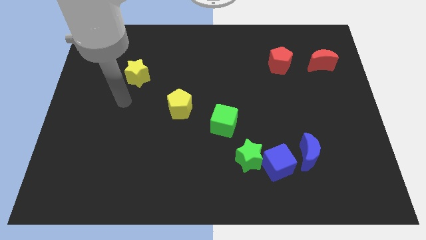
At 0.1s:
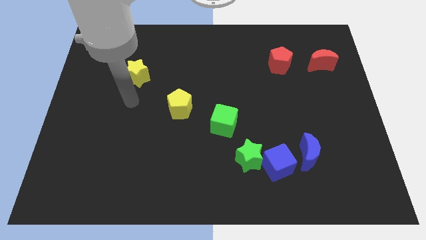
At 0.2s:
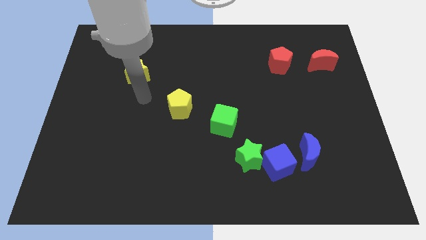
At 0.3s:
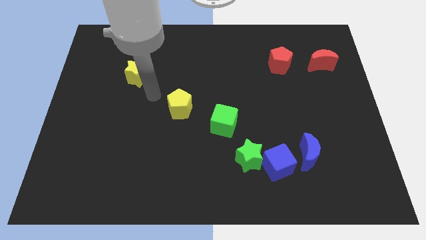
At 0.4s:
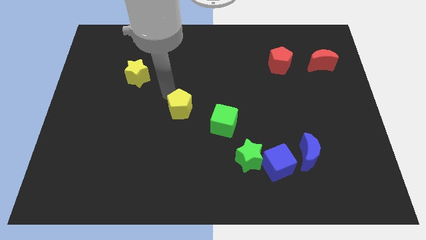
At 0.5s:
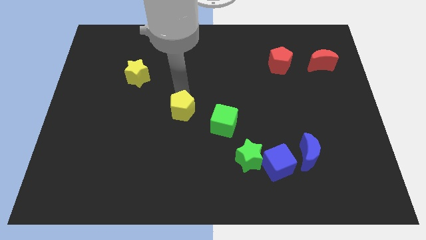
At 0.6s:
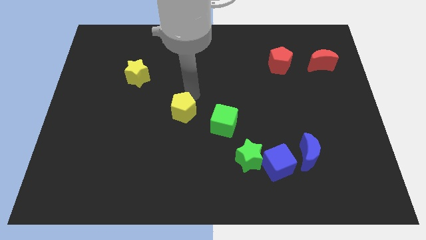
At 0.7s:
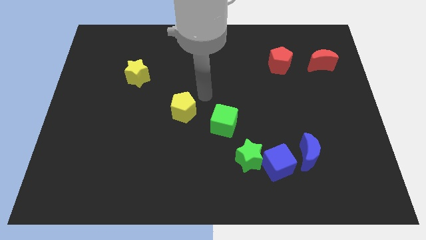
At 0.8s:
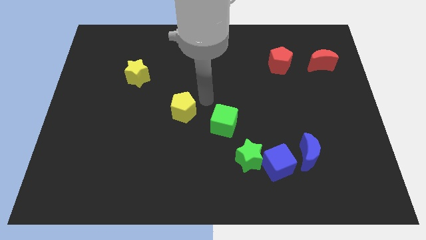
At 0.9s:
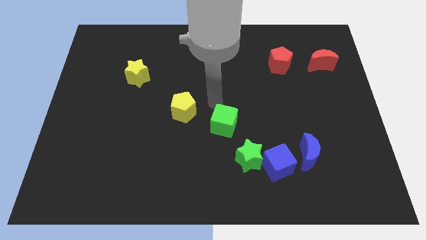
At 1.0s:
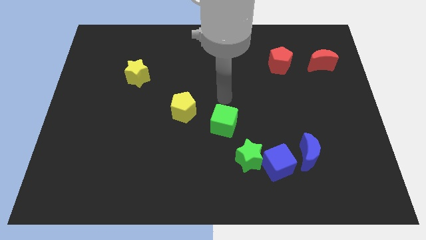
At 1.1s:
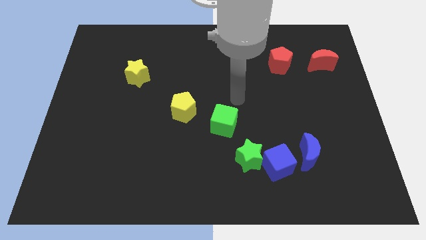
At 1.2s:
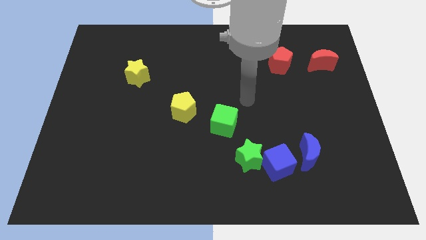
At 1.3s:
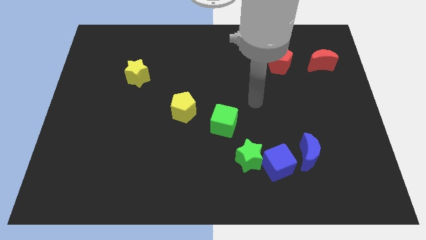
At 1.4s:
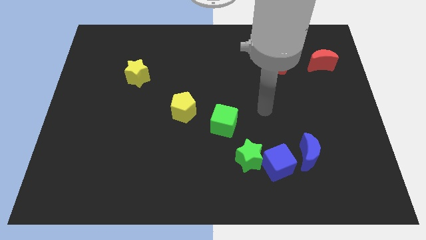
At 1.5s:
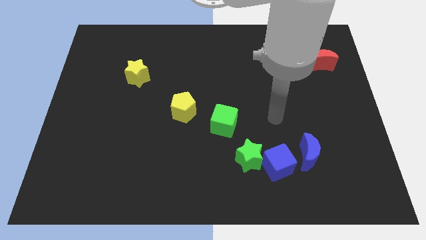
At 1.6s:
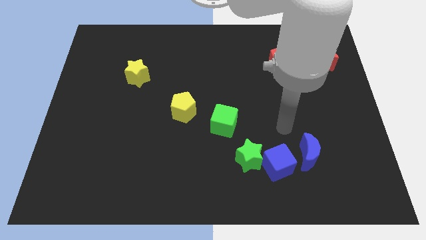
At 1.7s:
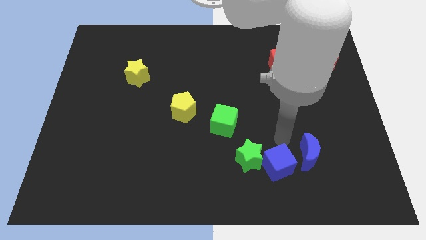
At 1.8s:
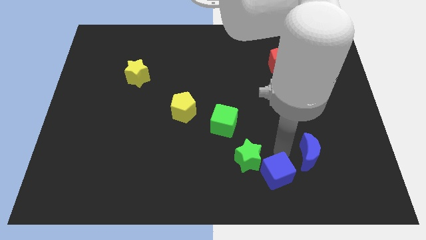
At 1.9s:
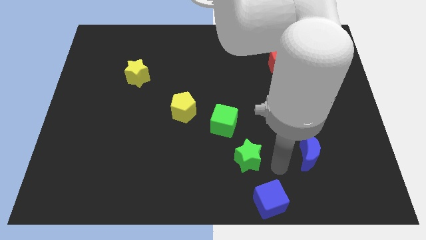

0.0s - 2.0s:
move the green star away from the blue cube

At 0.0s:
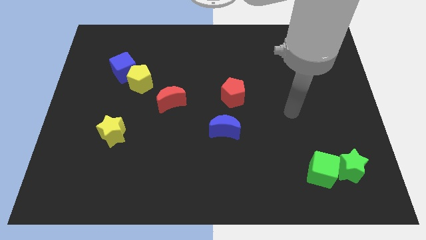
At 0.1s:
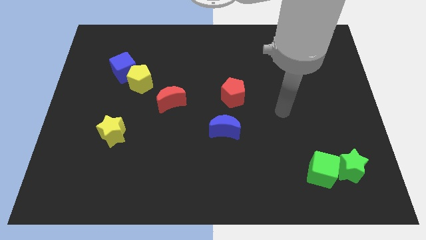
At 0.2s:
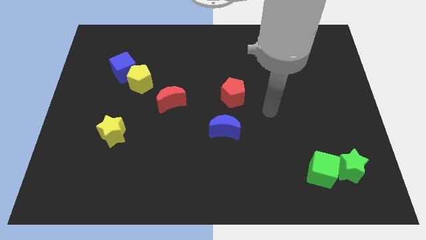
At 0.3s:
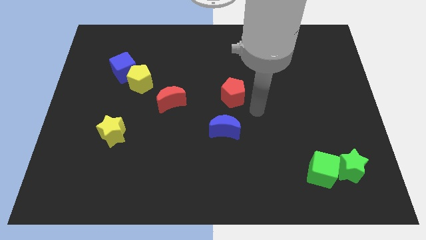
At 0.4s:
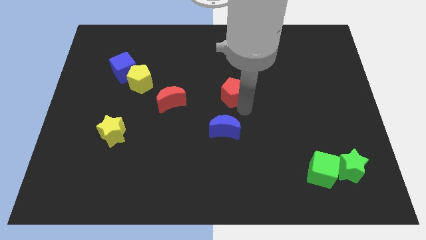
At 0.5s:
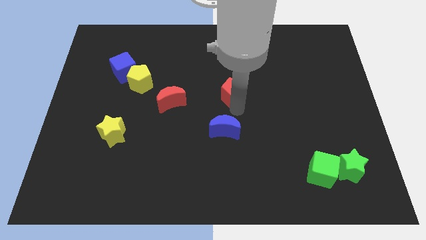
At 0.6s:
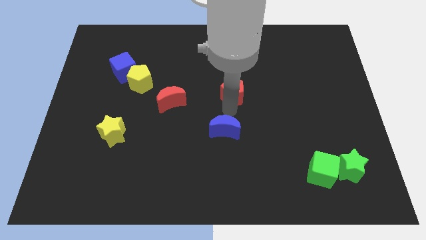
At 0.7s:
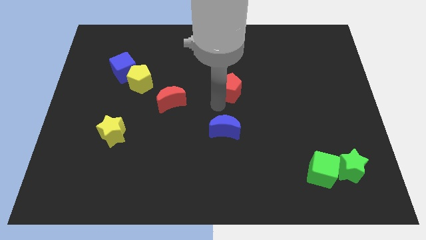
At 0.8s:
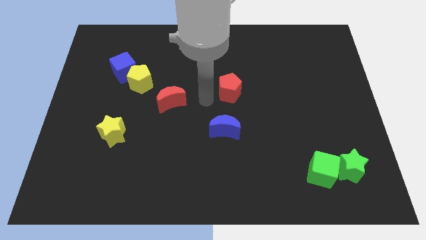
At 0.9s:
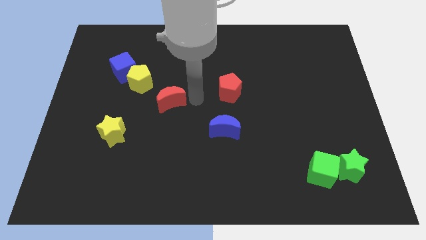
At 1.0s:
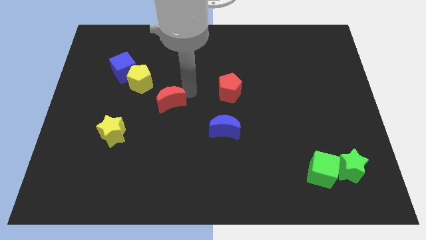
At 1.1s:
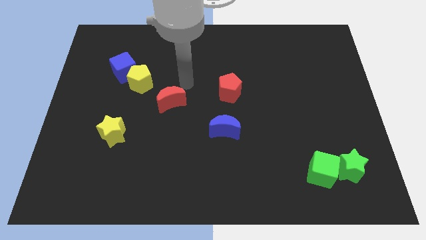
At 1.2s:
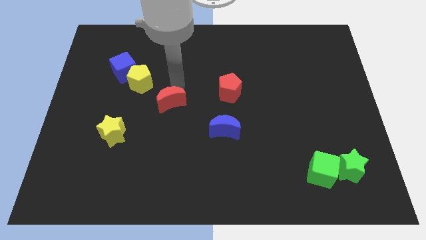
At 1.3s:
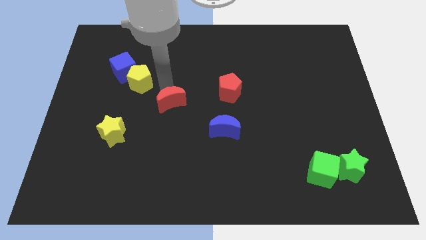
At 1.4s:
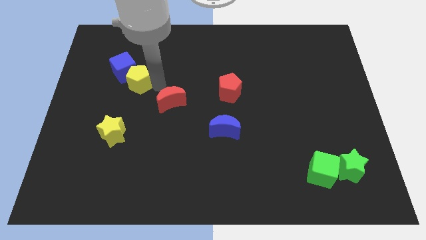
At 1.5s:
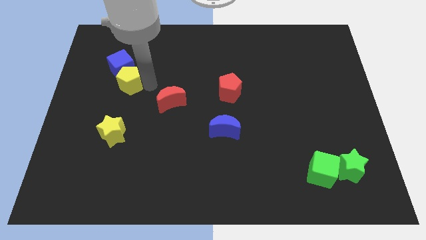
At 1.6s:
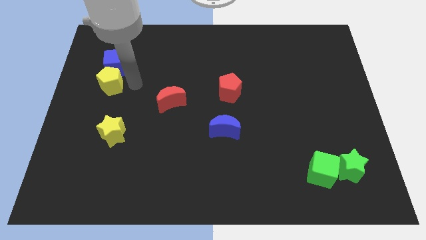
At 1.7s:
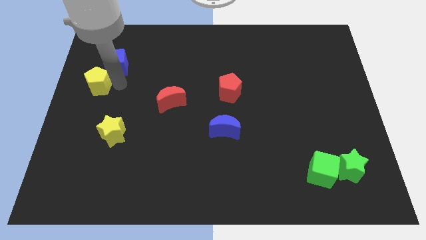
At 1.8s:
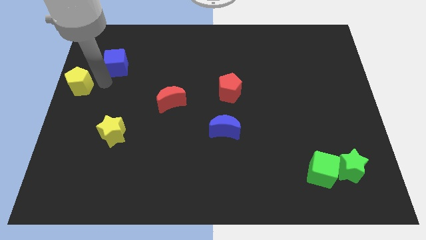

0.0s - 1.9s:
separate the blue cube from the yellow pentagon

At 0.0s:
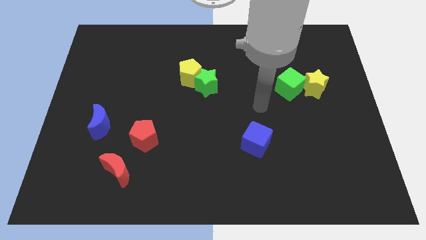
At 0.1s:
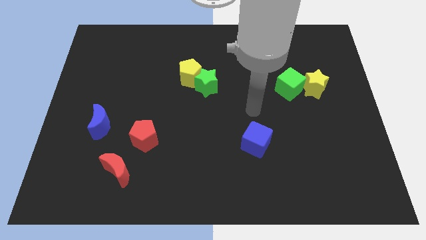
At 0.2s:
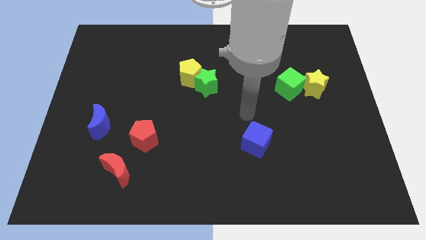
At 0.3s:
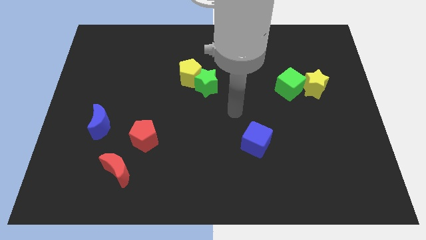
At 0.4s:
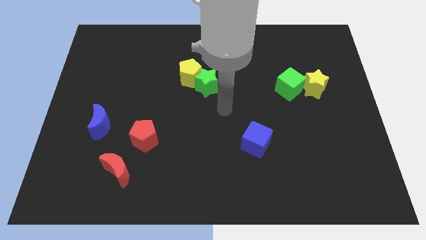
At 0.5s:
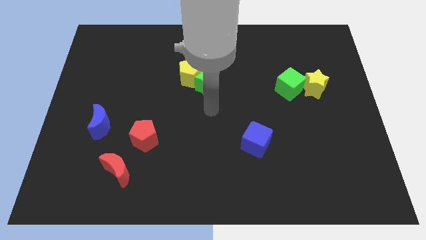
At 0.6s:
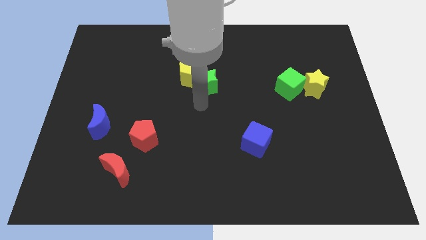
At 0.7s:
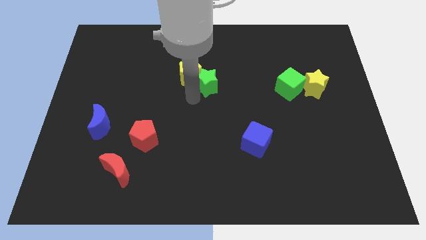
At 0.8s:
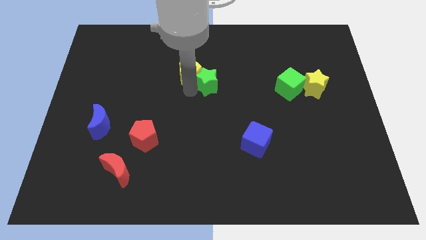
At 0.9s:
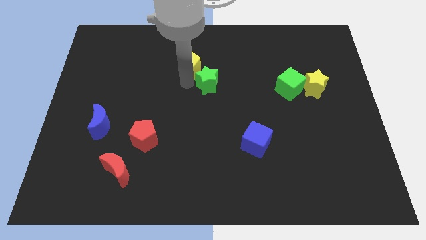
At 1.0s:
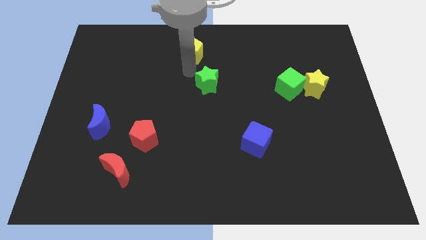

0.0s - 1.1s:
pull the green star apart from the yellow pentagon

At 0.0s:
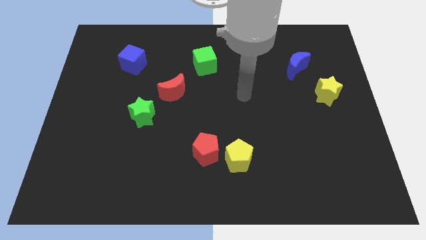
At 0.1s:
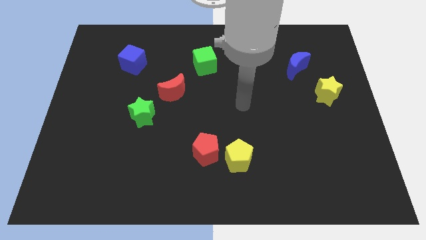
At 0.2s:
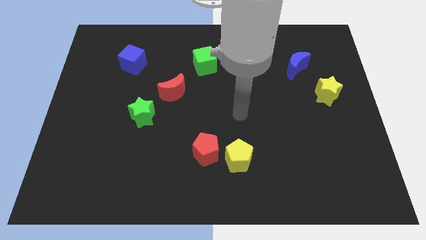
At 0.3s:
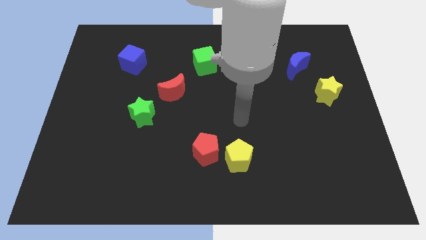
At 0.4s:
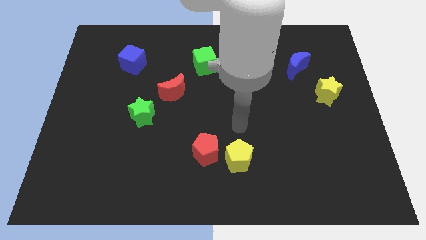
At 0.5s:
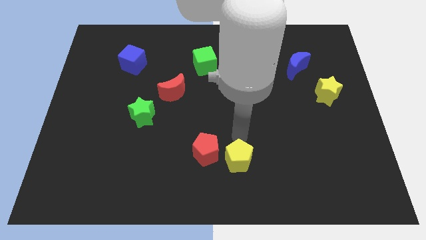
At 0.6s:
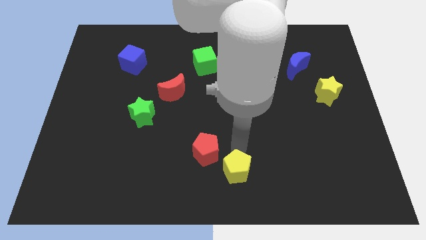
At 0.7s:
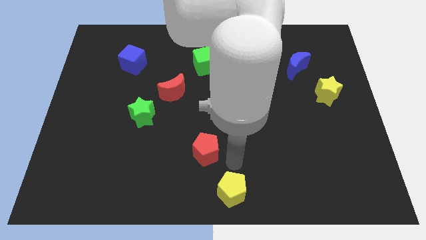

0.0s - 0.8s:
pull the red pentagon apart from the yellow pentagon

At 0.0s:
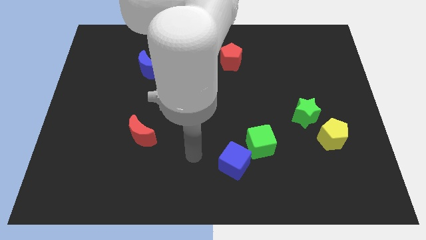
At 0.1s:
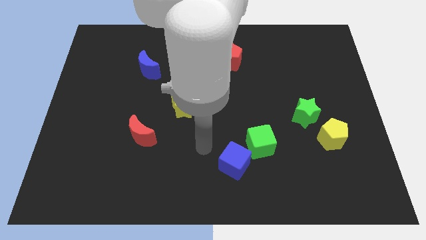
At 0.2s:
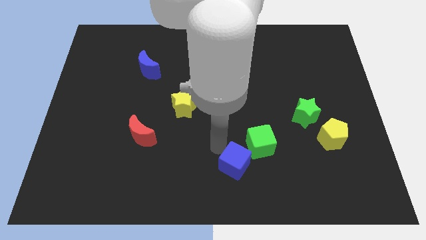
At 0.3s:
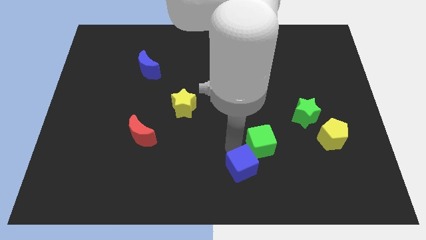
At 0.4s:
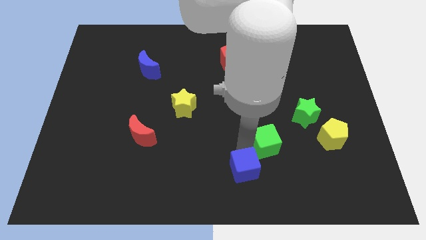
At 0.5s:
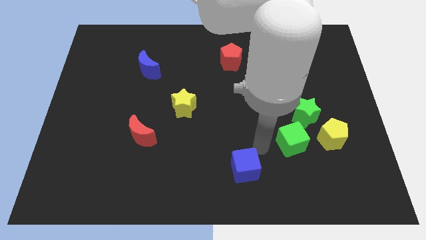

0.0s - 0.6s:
move the blue cube away from the green cube

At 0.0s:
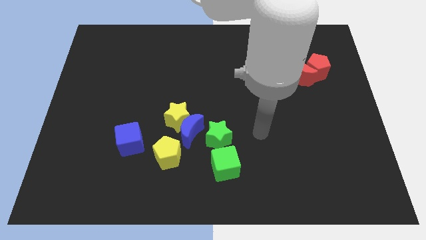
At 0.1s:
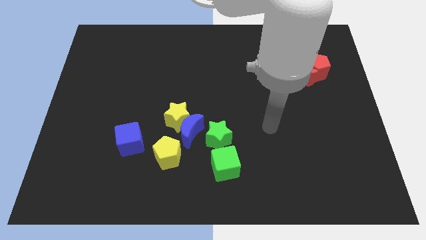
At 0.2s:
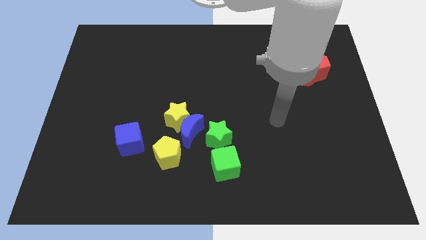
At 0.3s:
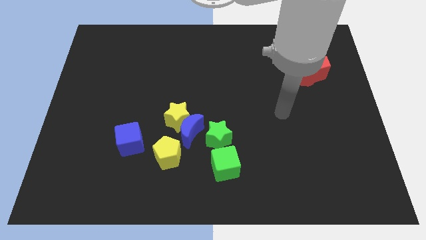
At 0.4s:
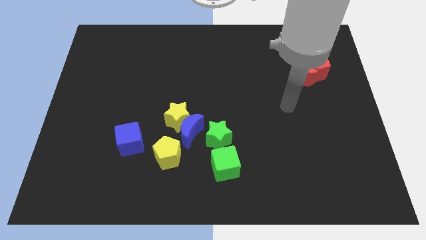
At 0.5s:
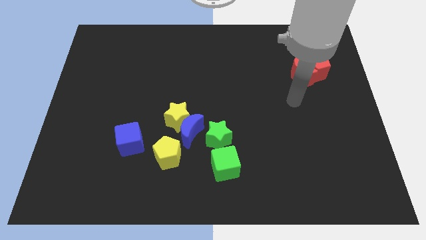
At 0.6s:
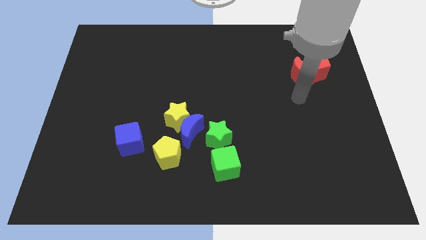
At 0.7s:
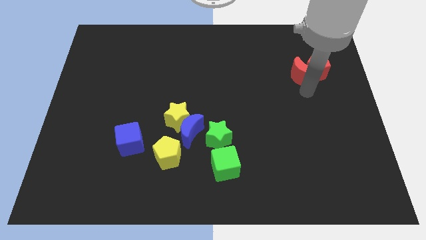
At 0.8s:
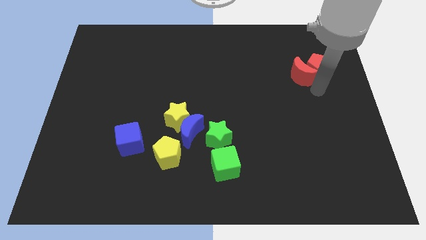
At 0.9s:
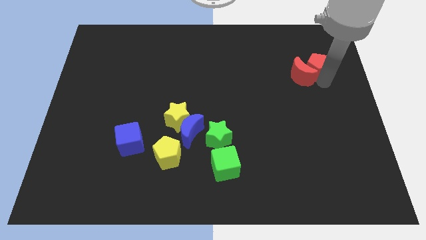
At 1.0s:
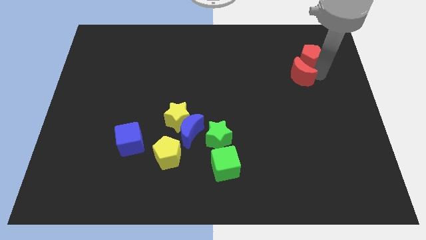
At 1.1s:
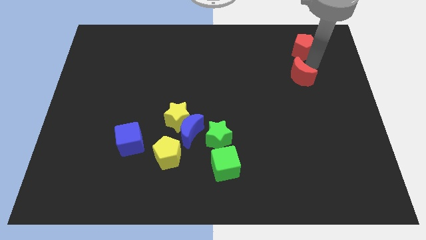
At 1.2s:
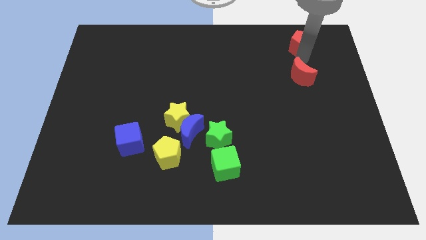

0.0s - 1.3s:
pull the red moon apart from the red pentagon

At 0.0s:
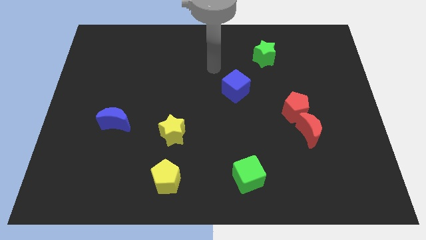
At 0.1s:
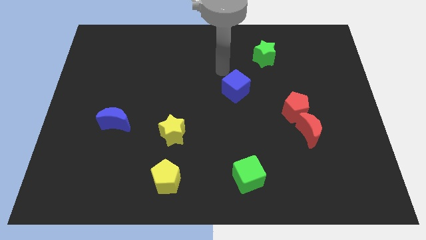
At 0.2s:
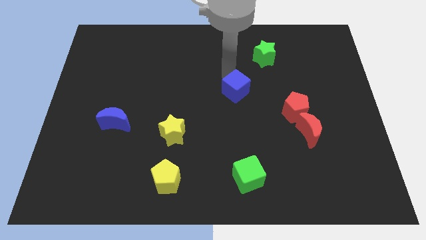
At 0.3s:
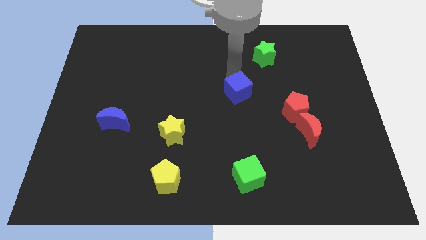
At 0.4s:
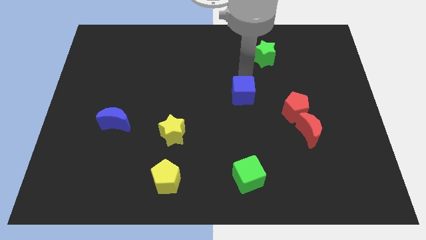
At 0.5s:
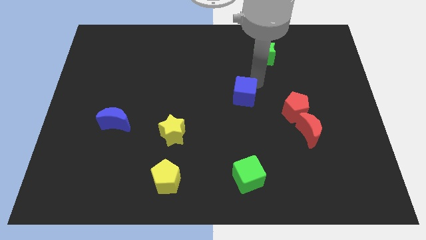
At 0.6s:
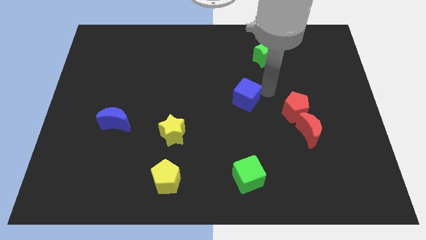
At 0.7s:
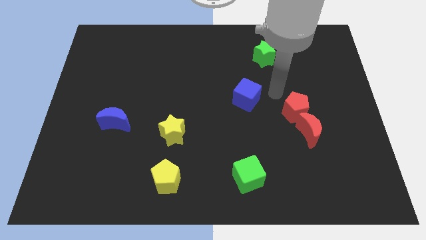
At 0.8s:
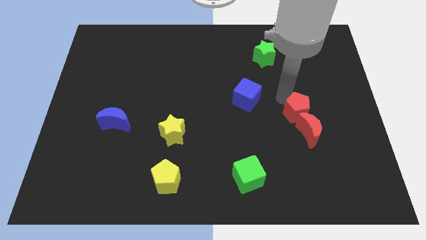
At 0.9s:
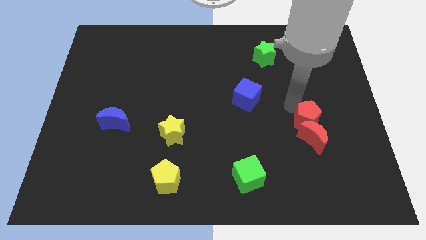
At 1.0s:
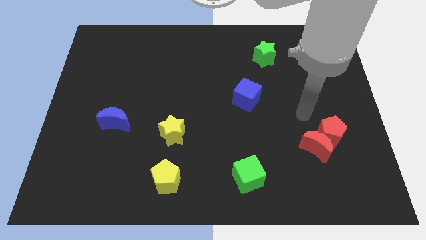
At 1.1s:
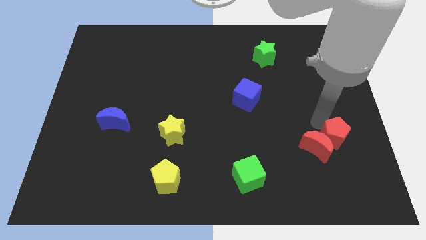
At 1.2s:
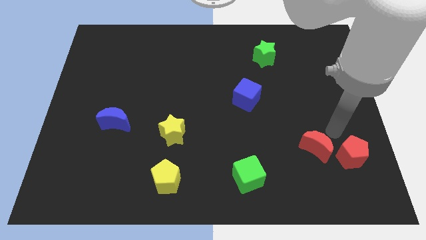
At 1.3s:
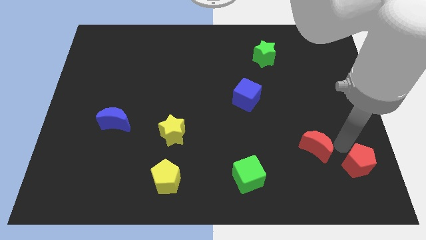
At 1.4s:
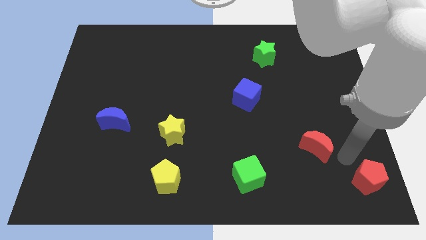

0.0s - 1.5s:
move the red moon away from the red pentagon

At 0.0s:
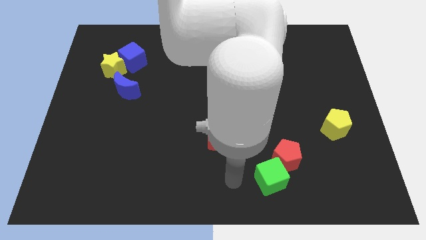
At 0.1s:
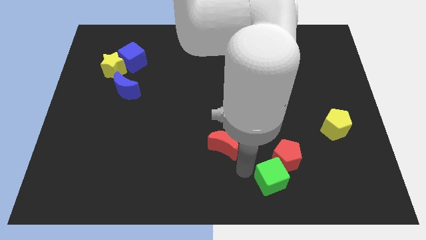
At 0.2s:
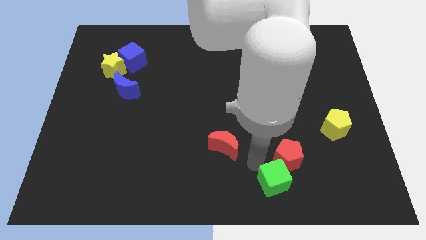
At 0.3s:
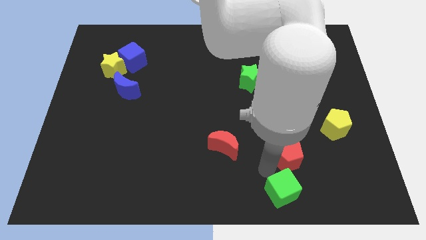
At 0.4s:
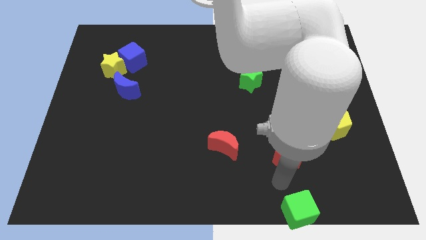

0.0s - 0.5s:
separate the red pentagon from the green cube
